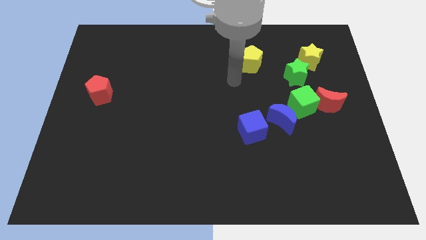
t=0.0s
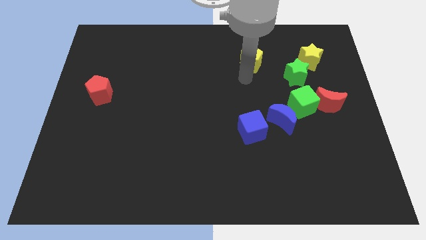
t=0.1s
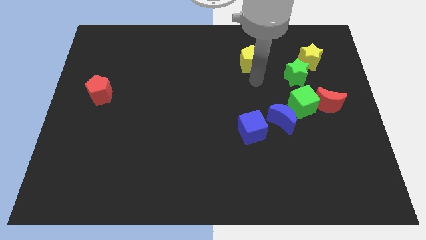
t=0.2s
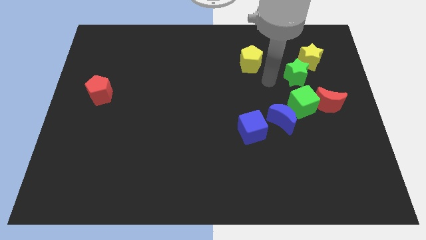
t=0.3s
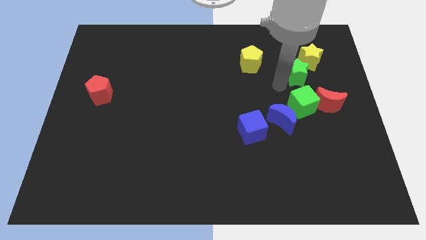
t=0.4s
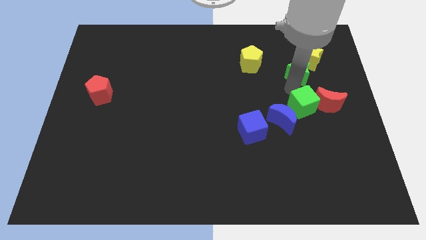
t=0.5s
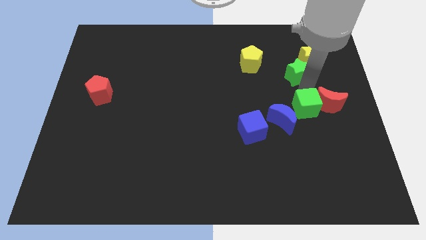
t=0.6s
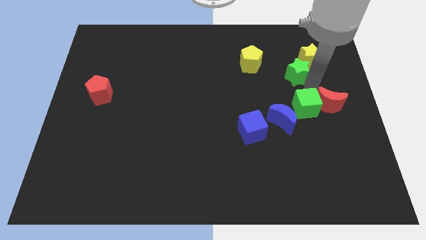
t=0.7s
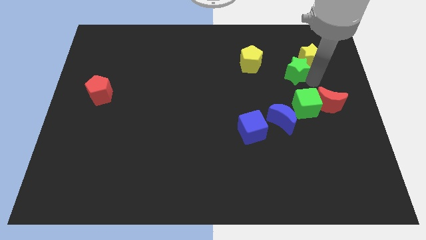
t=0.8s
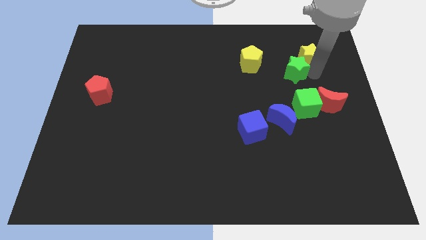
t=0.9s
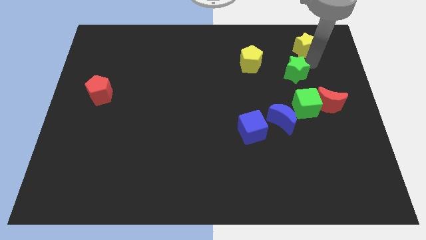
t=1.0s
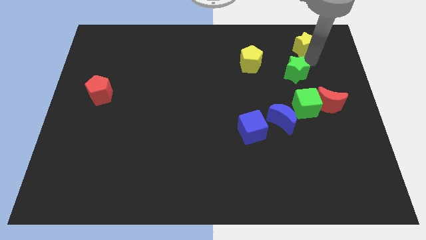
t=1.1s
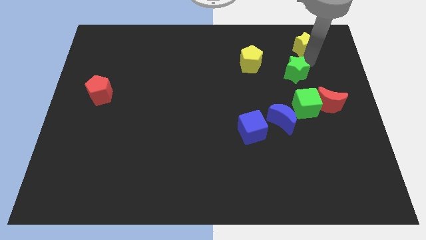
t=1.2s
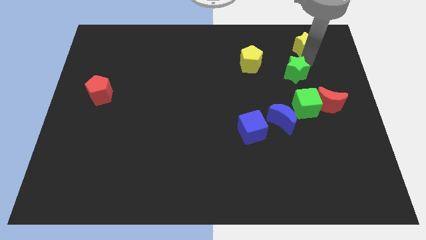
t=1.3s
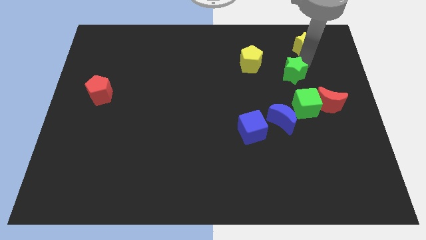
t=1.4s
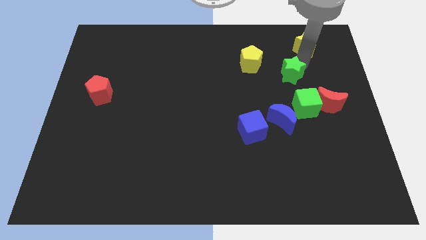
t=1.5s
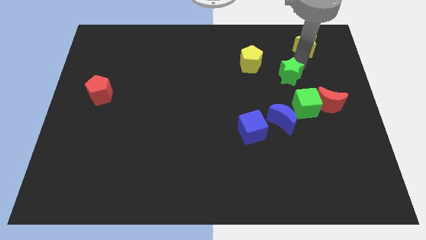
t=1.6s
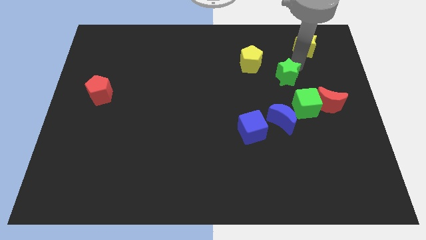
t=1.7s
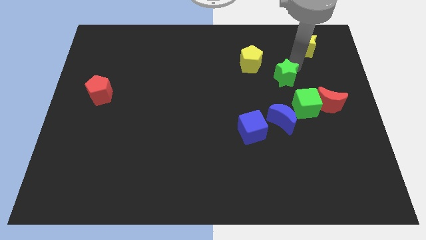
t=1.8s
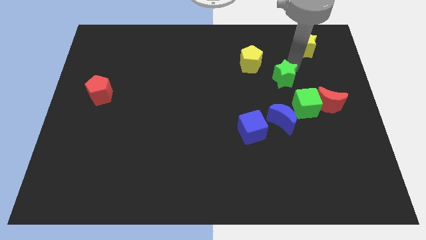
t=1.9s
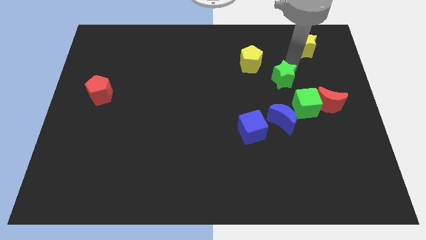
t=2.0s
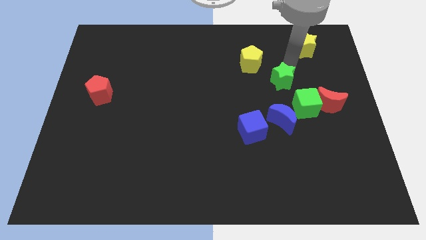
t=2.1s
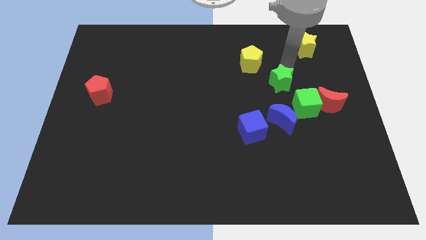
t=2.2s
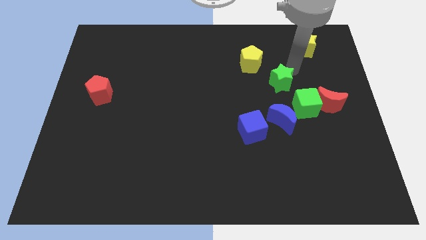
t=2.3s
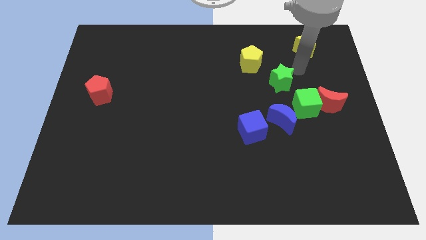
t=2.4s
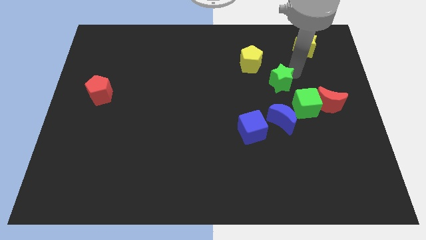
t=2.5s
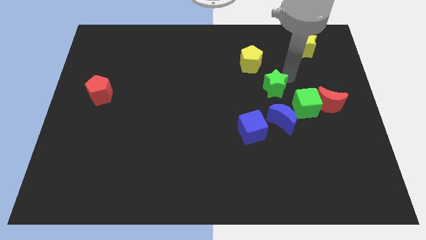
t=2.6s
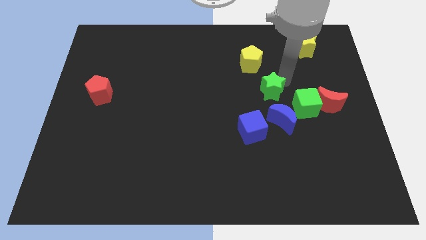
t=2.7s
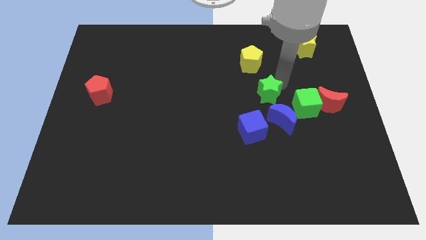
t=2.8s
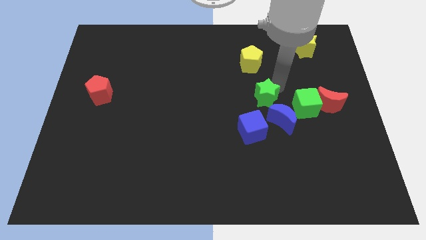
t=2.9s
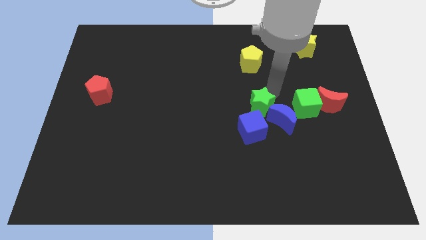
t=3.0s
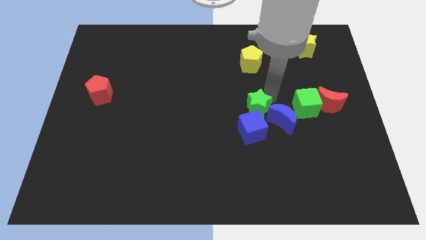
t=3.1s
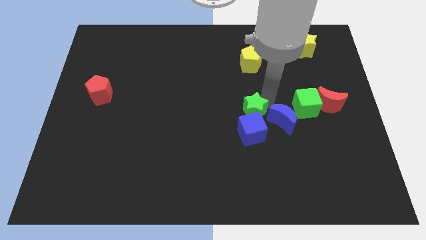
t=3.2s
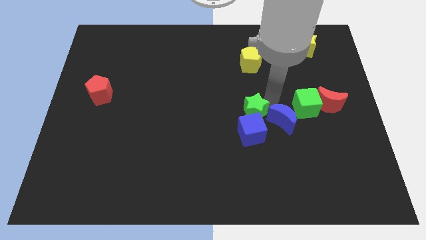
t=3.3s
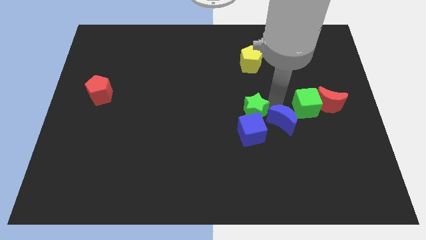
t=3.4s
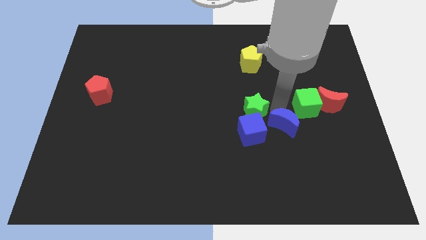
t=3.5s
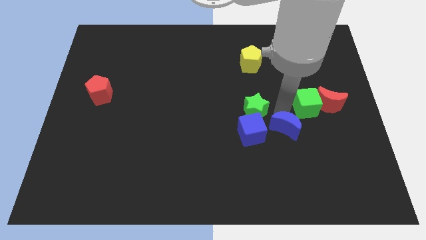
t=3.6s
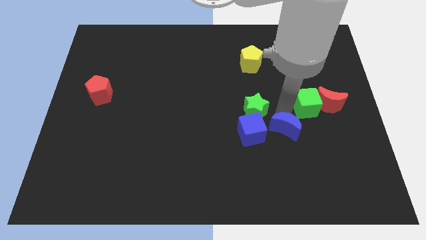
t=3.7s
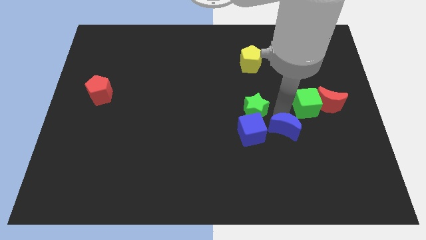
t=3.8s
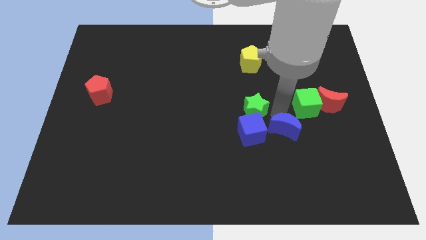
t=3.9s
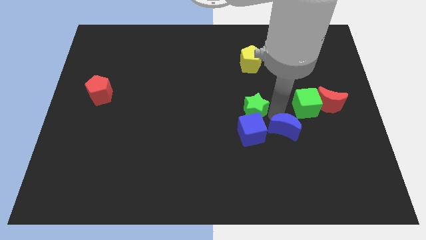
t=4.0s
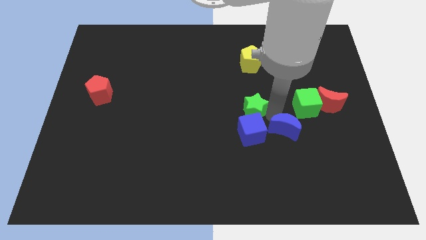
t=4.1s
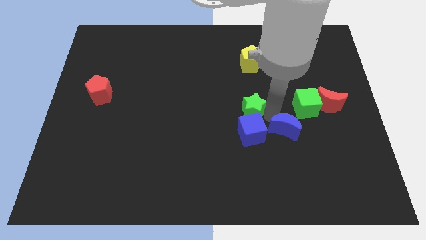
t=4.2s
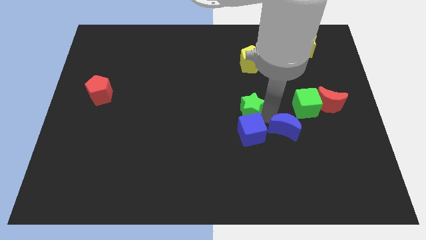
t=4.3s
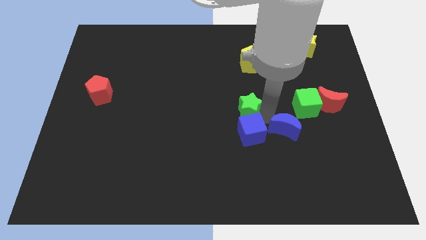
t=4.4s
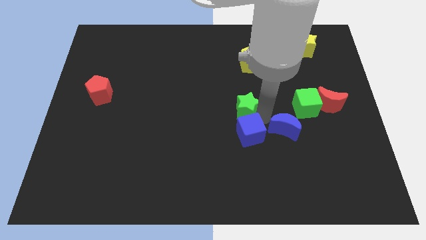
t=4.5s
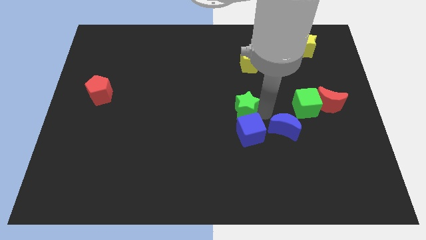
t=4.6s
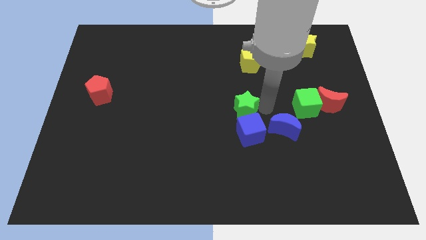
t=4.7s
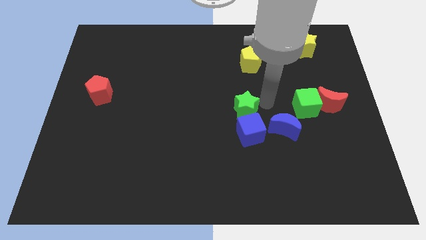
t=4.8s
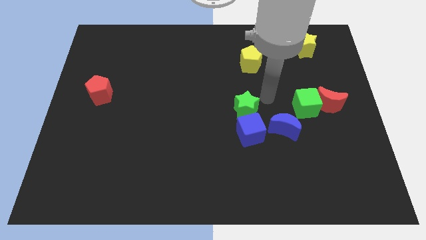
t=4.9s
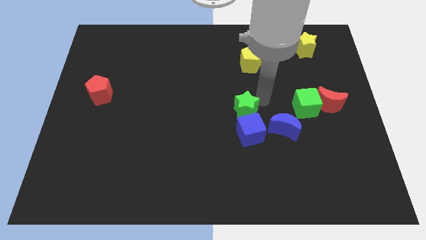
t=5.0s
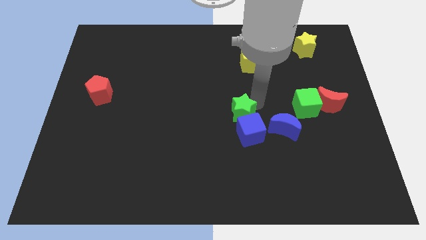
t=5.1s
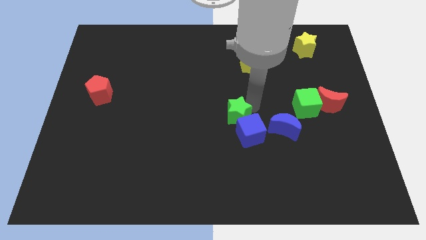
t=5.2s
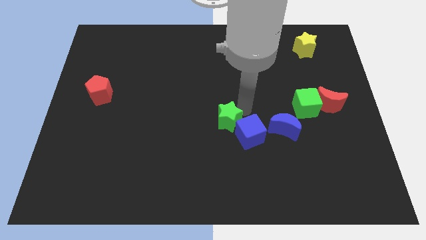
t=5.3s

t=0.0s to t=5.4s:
push the green star diagonally down and left

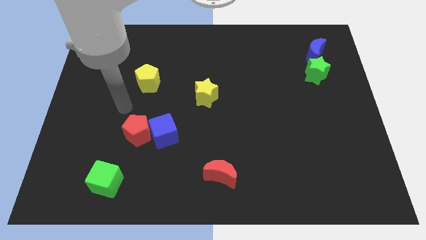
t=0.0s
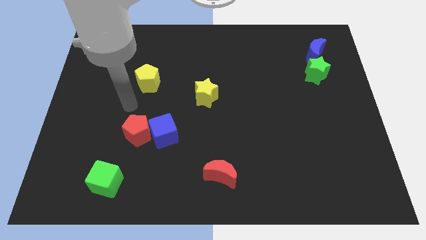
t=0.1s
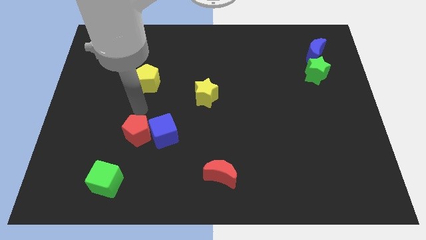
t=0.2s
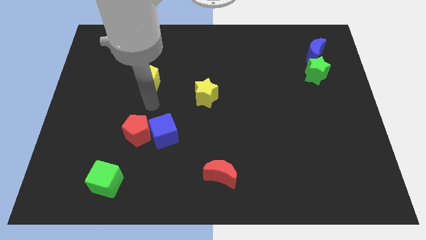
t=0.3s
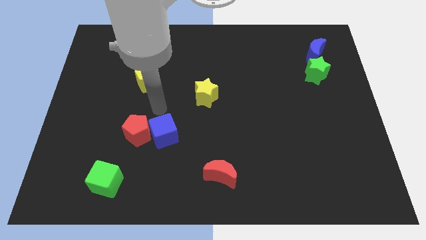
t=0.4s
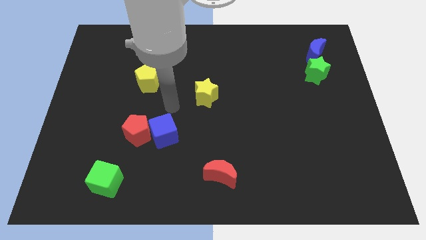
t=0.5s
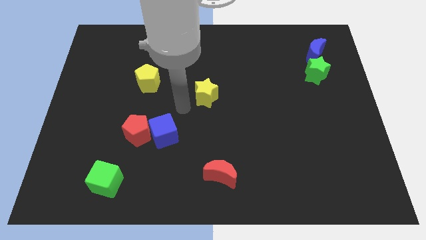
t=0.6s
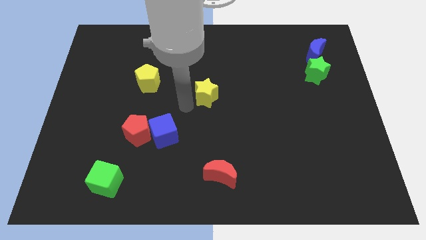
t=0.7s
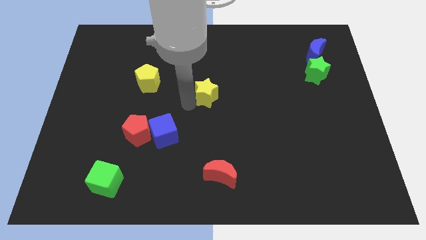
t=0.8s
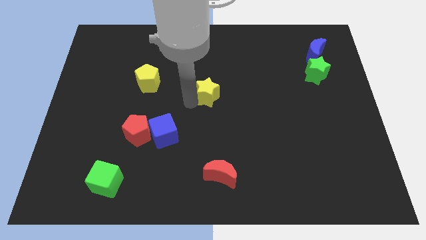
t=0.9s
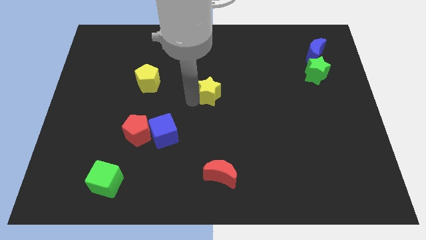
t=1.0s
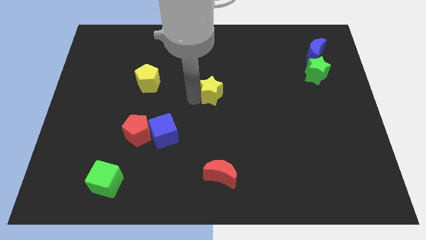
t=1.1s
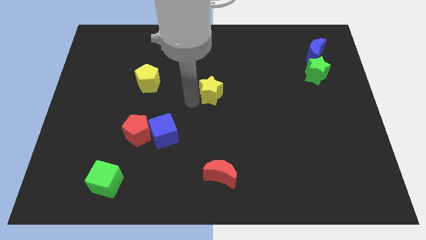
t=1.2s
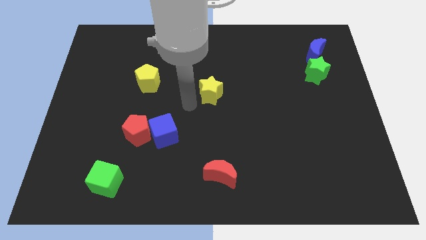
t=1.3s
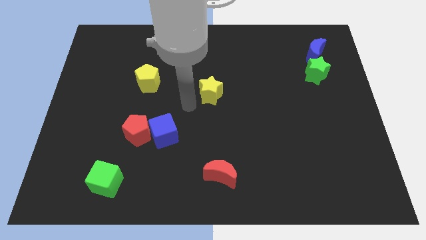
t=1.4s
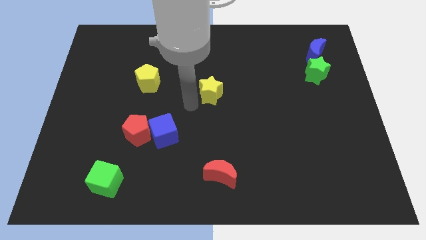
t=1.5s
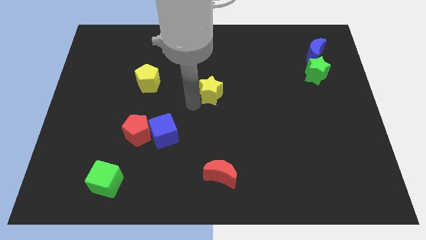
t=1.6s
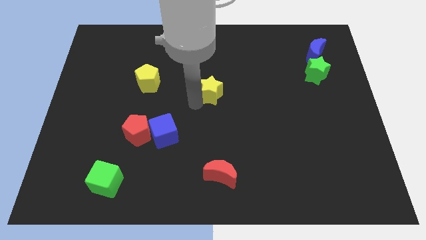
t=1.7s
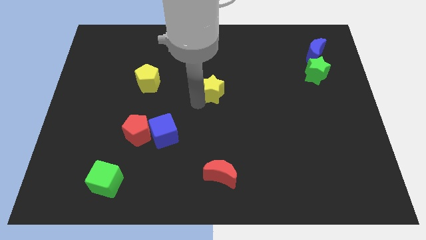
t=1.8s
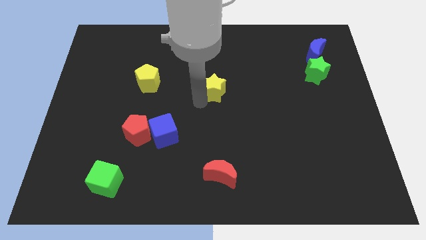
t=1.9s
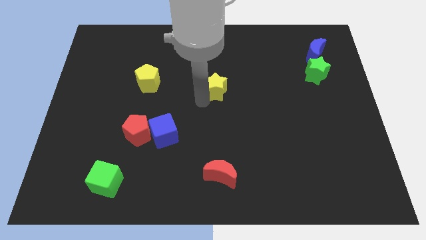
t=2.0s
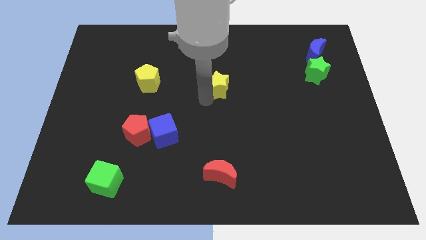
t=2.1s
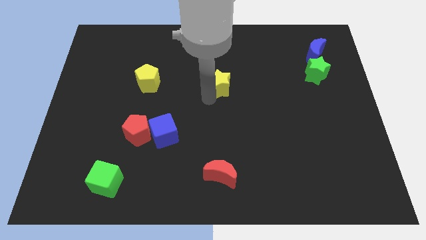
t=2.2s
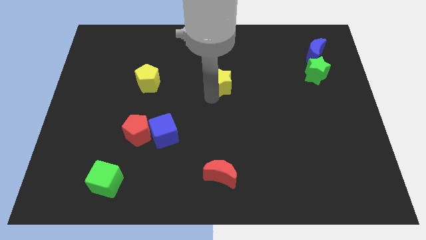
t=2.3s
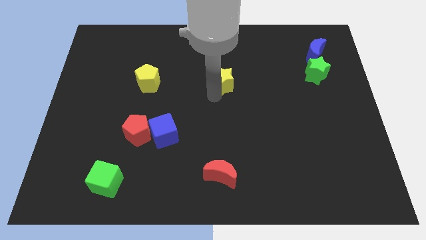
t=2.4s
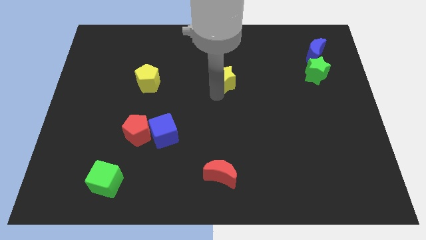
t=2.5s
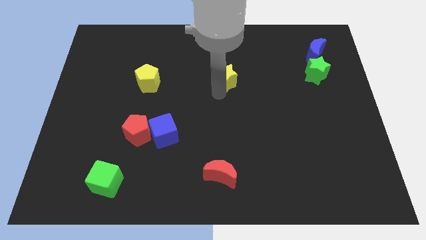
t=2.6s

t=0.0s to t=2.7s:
slightly move the yellow star diagonally up and right
